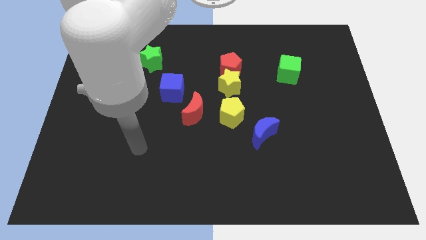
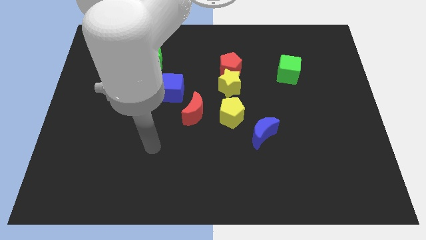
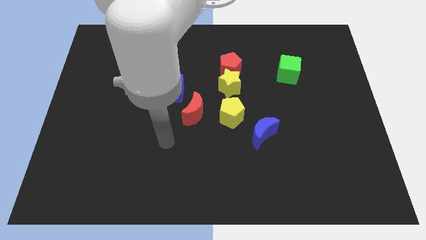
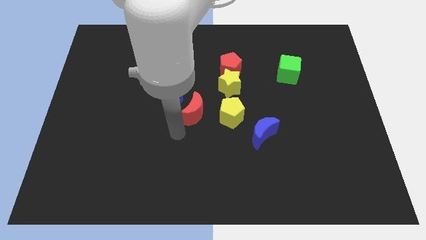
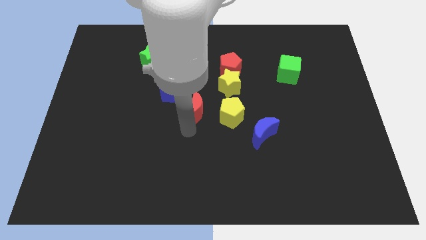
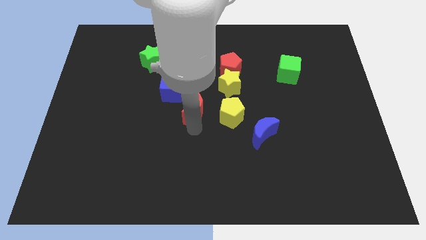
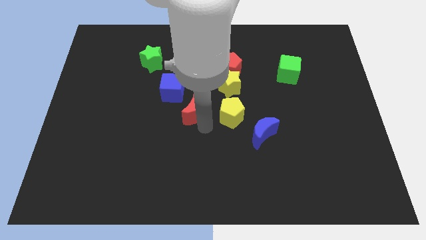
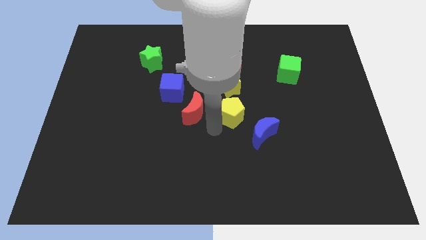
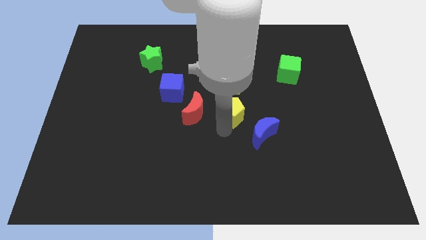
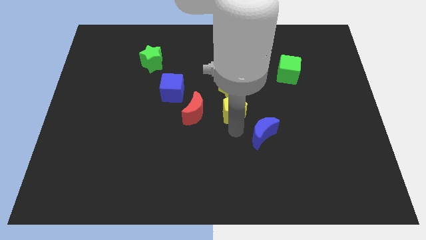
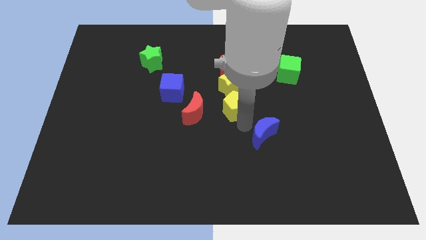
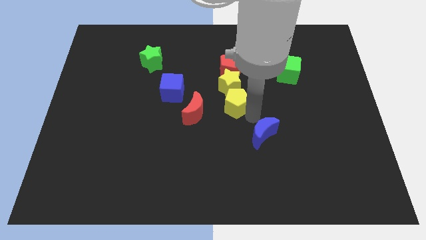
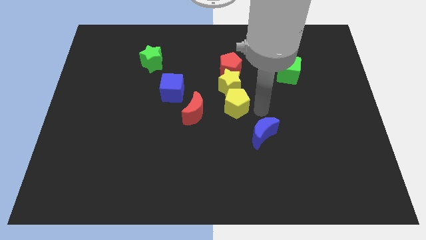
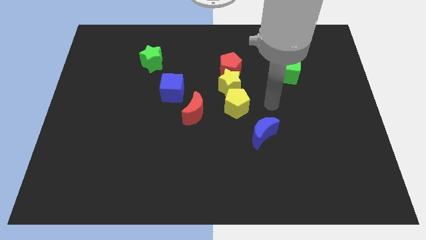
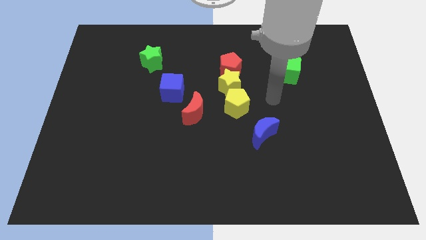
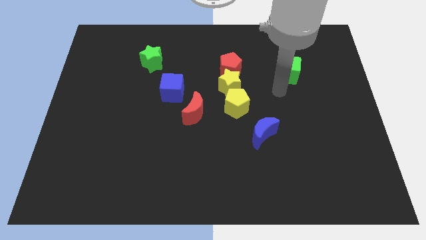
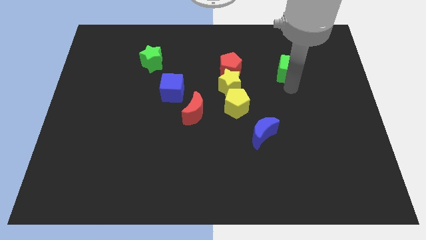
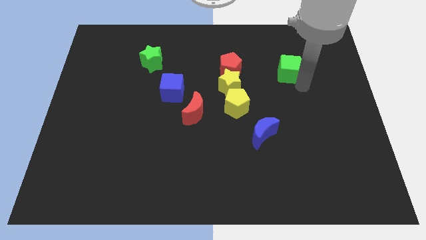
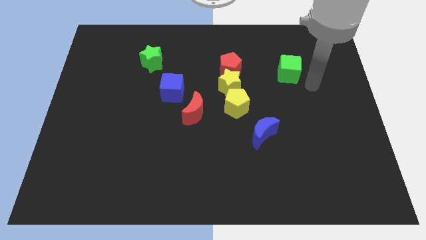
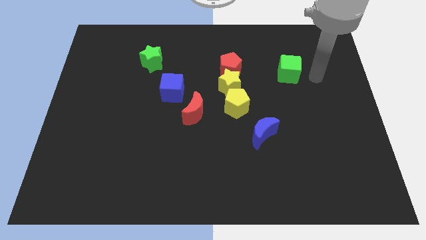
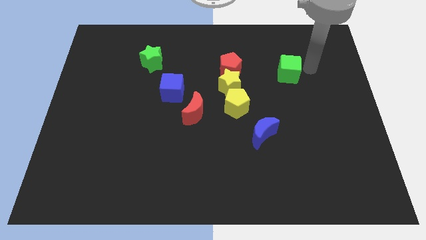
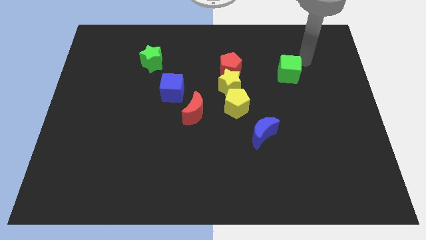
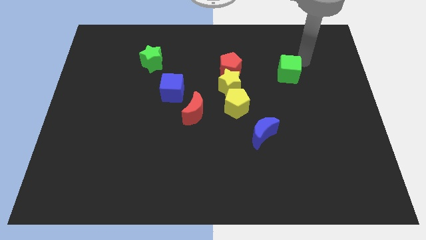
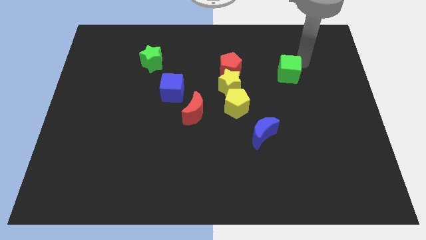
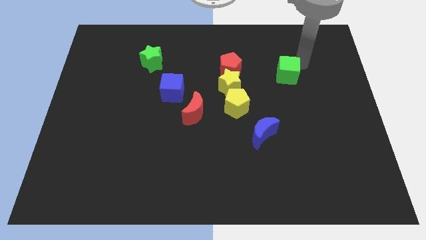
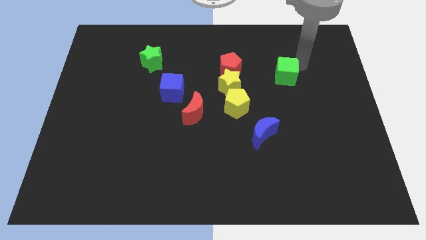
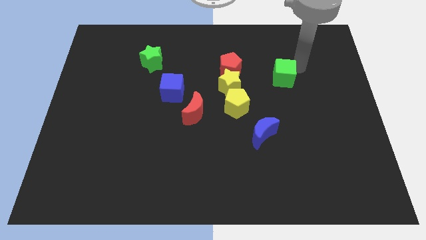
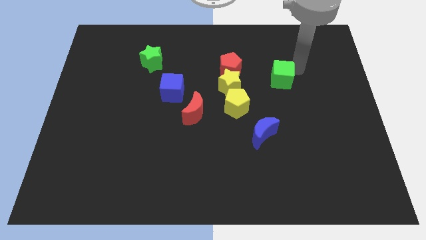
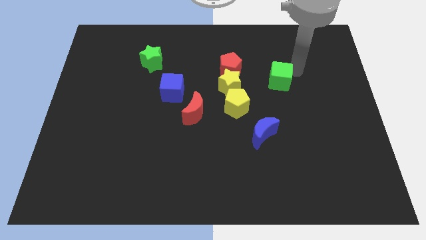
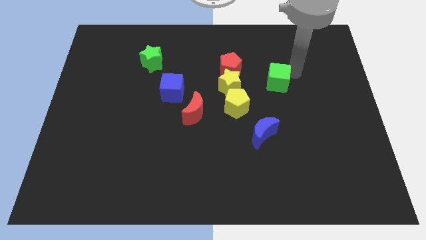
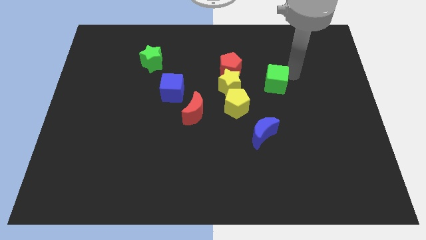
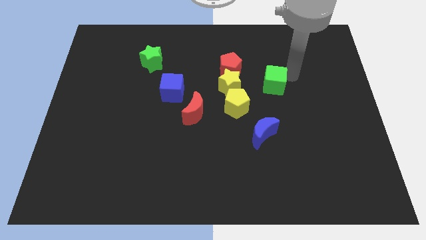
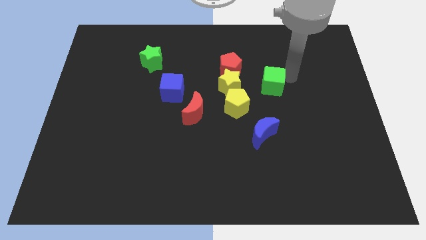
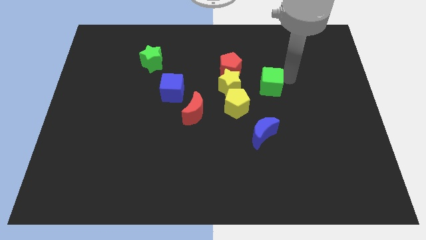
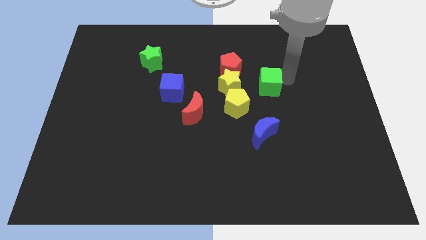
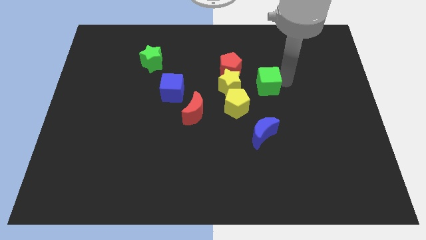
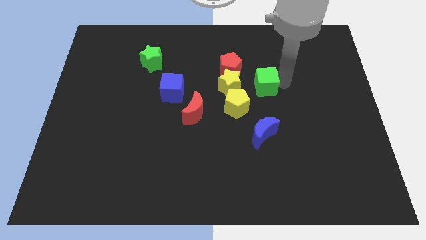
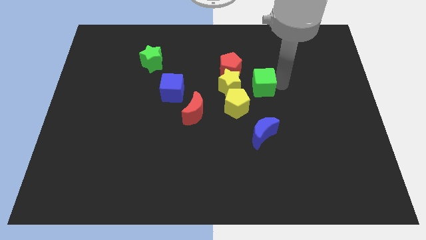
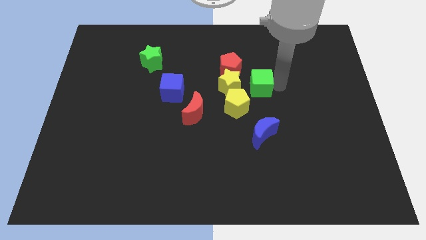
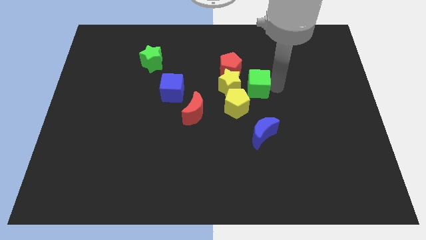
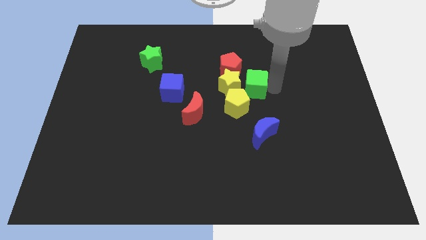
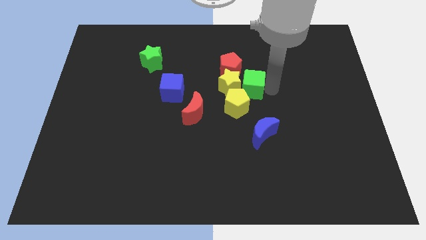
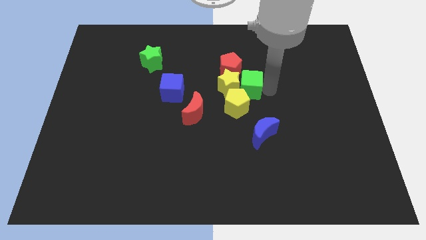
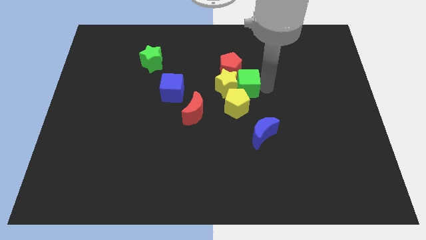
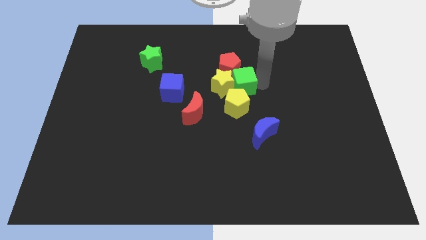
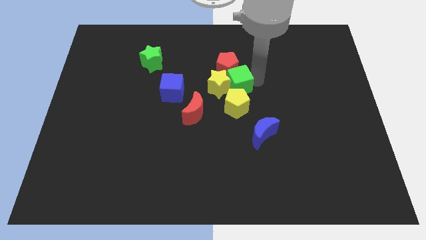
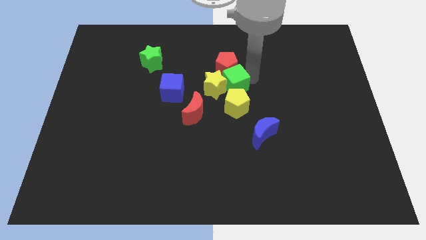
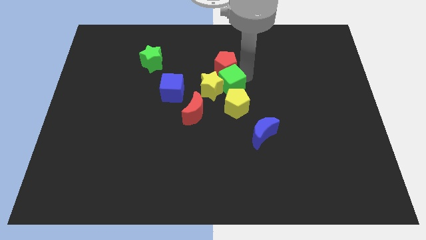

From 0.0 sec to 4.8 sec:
slide the green cube diagonally up and to the left of the yellow pentagon

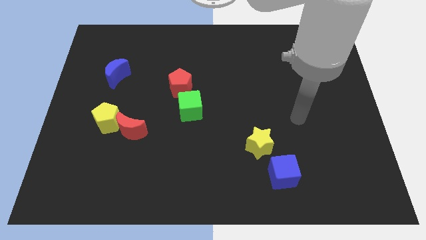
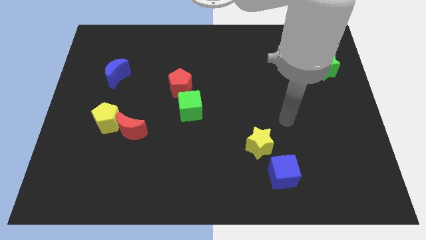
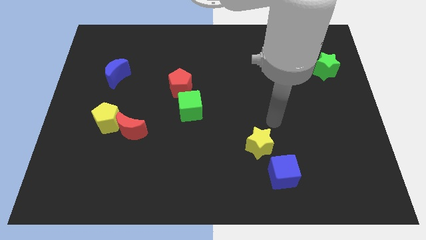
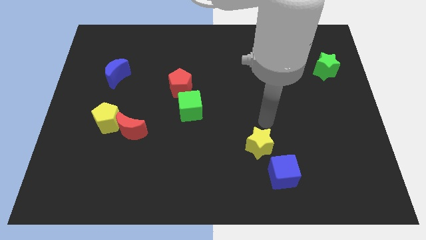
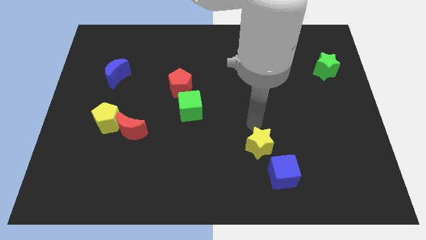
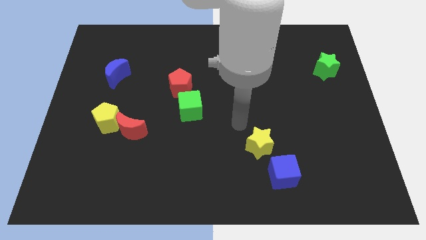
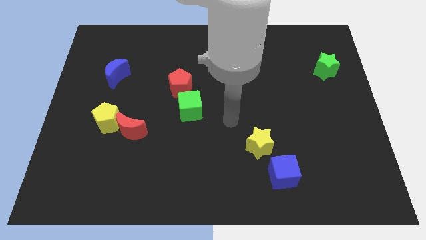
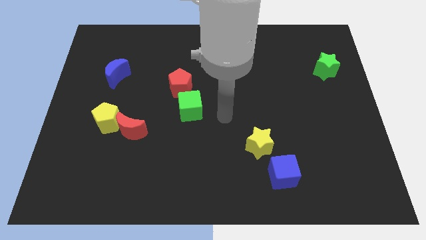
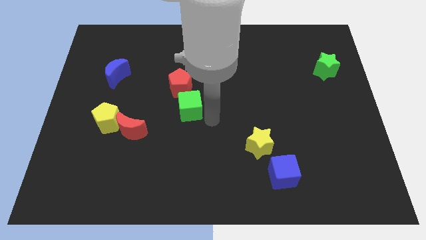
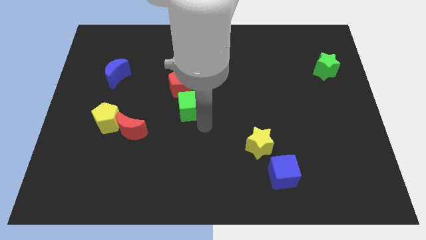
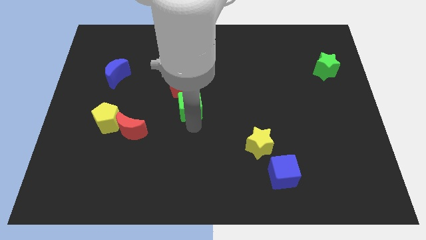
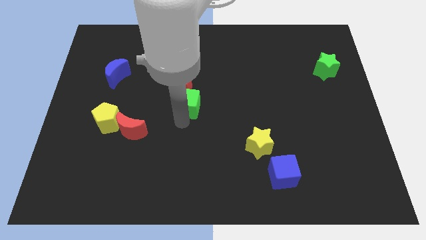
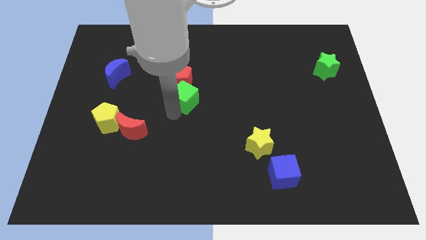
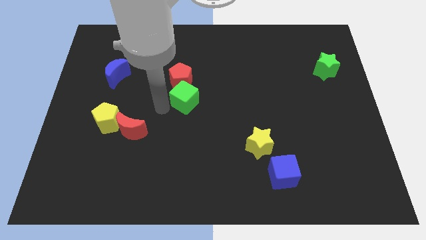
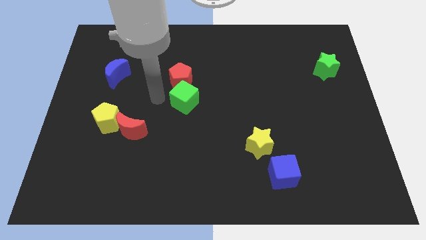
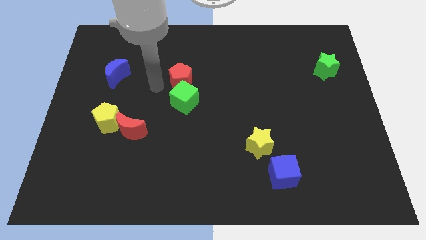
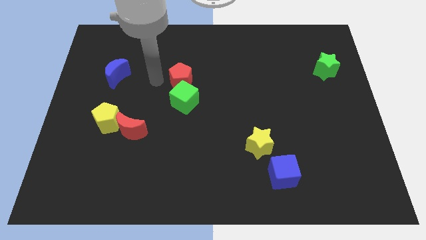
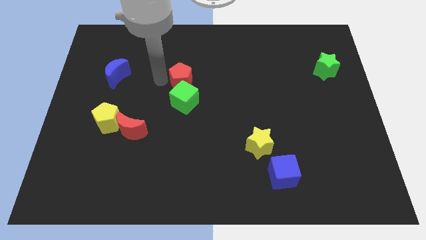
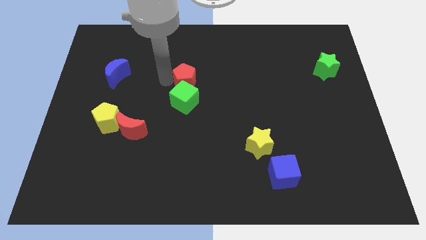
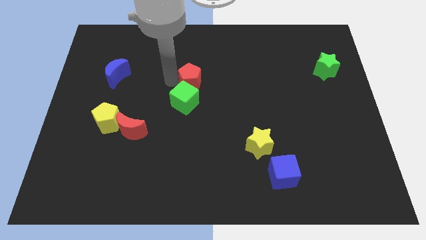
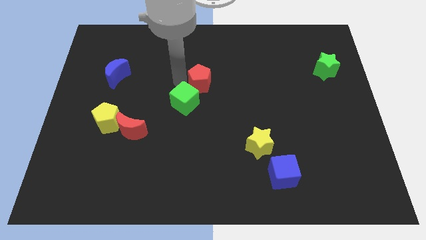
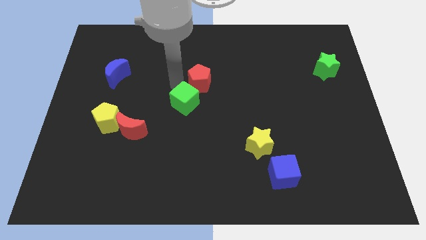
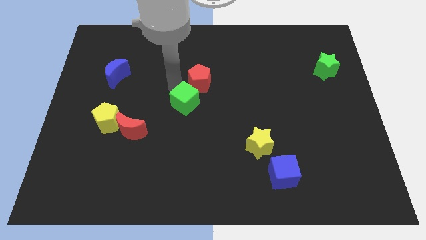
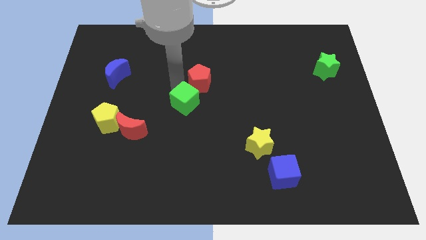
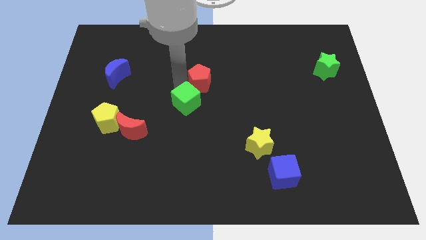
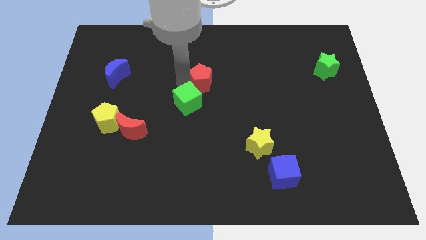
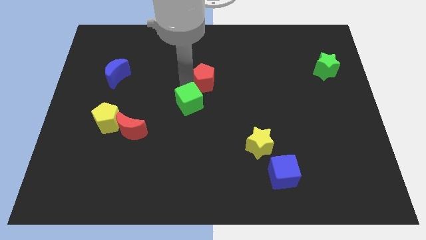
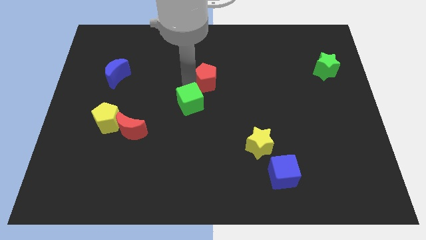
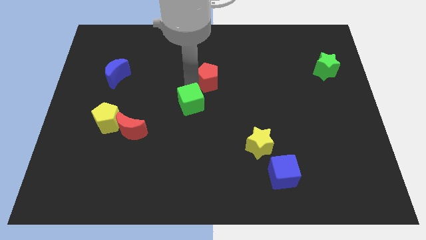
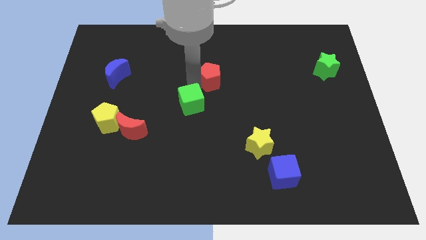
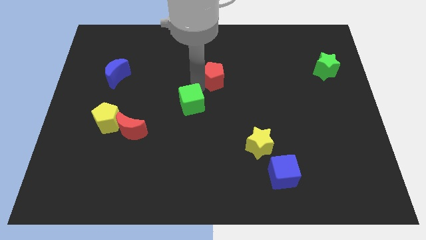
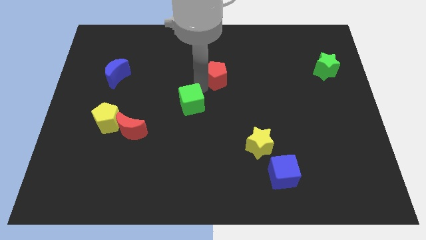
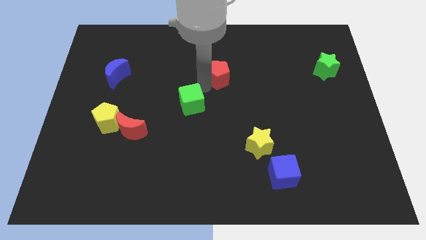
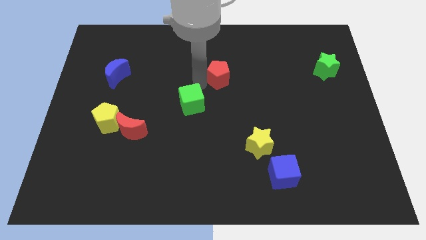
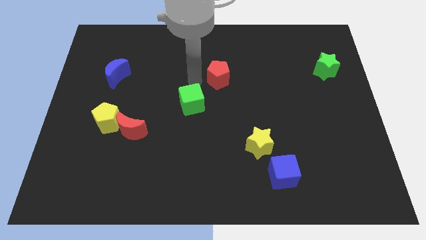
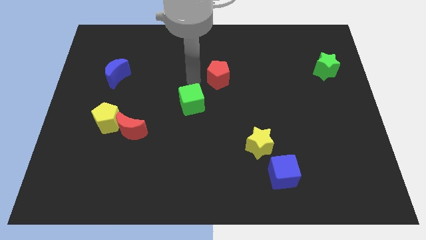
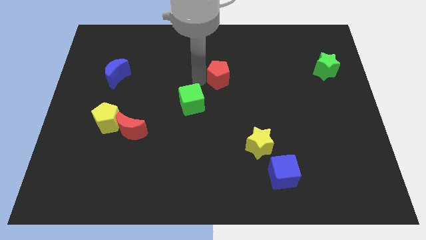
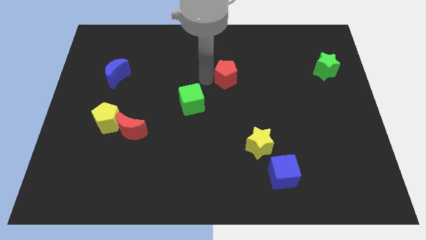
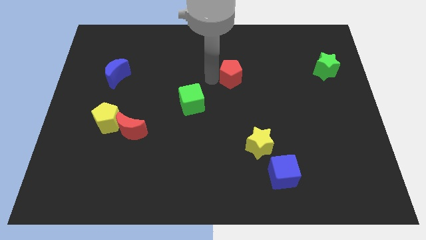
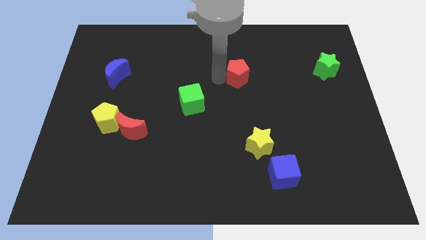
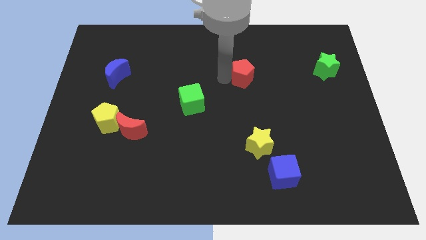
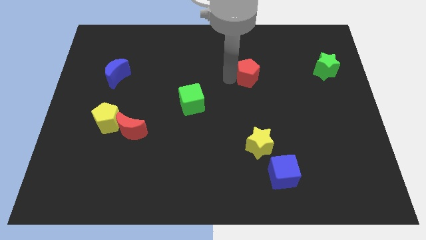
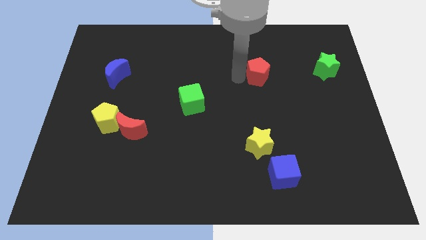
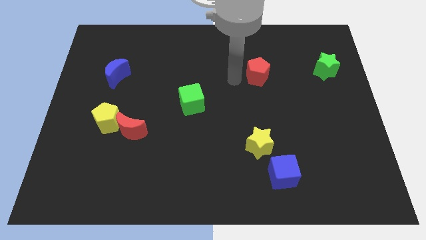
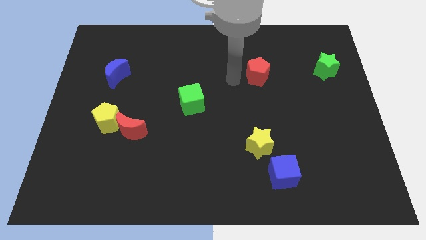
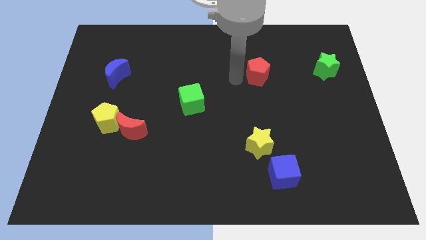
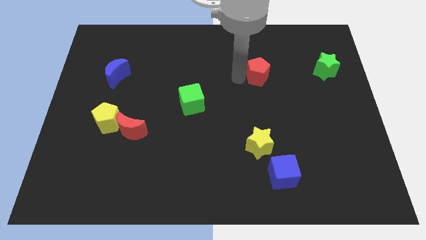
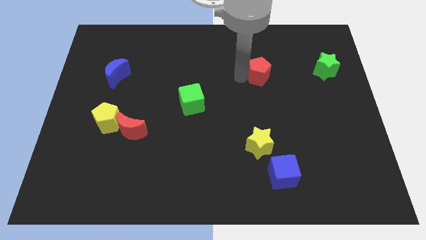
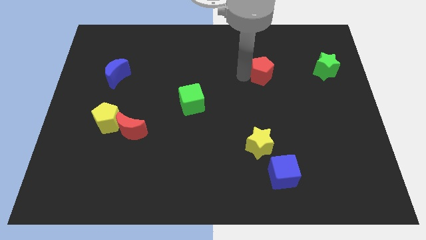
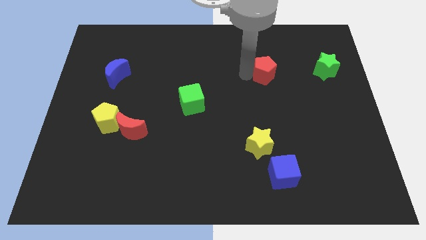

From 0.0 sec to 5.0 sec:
move the red pentagon to the left side of the green star
